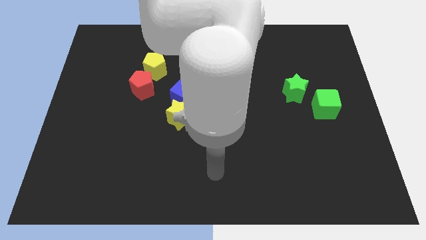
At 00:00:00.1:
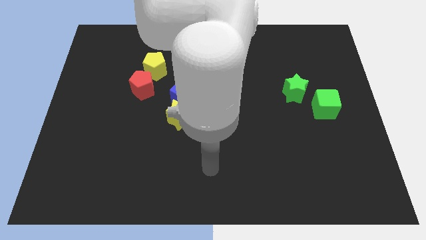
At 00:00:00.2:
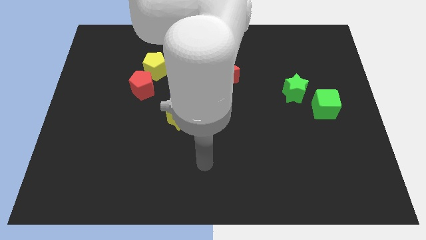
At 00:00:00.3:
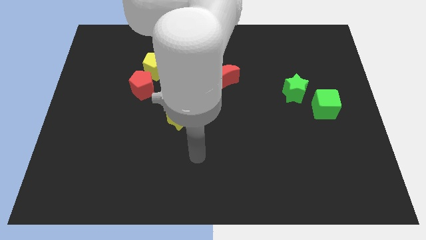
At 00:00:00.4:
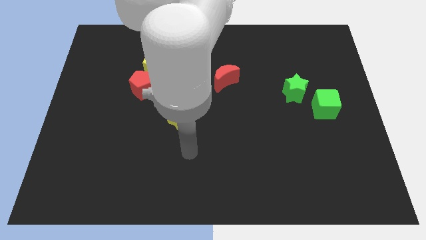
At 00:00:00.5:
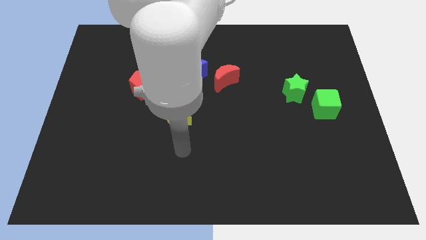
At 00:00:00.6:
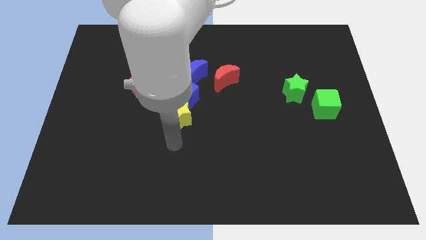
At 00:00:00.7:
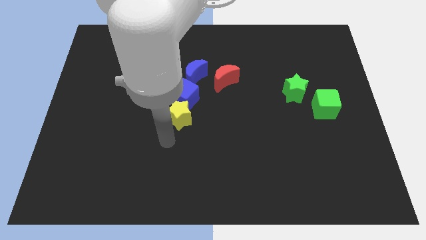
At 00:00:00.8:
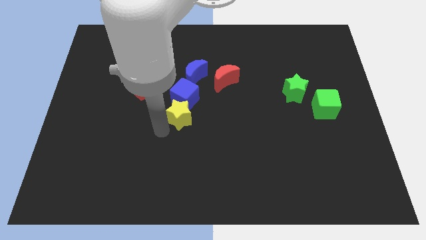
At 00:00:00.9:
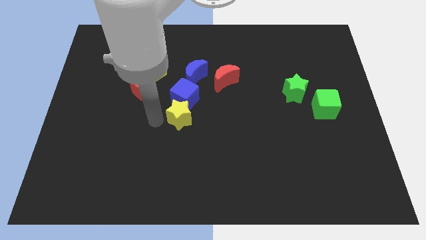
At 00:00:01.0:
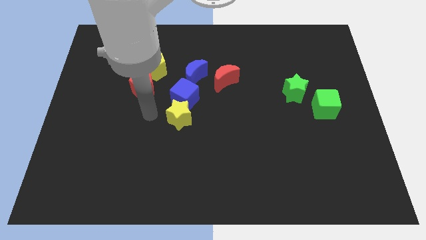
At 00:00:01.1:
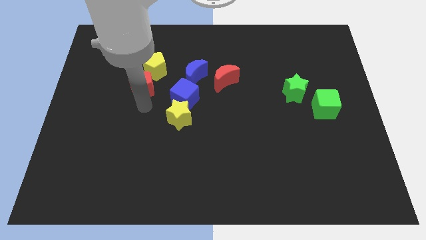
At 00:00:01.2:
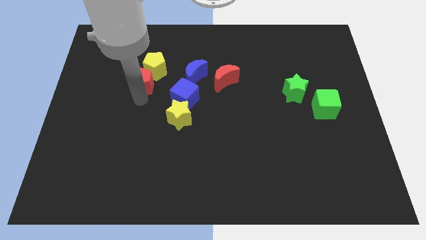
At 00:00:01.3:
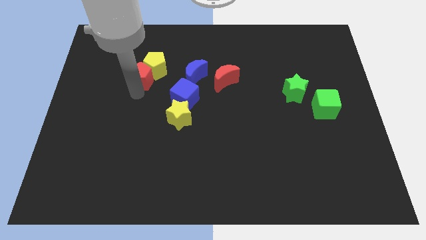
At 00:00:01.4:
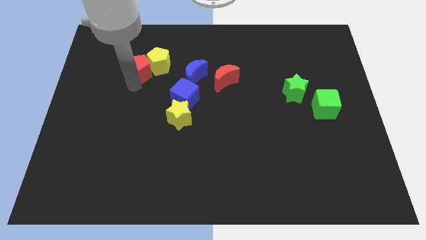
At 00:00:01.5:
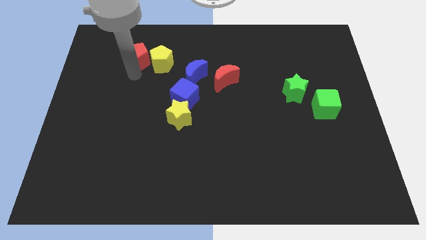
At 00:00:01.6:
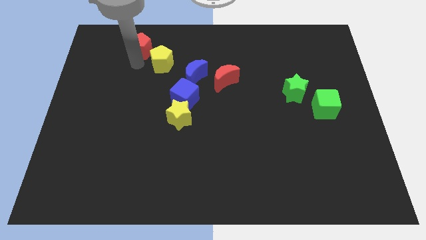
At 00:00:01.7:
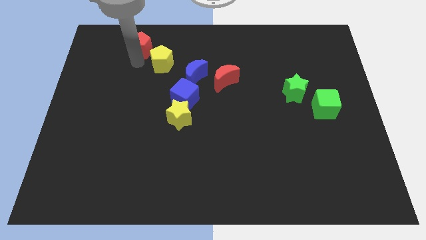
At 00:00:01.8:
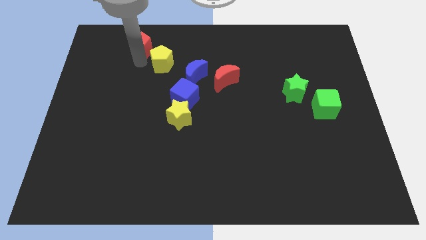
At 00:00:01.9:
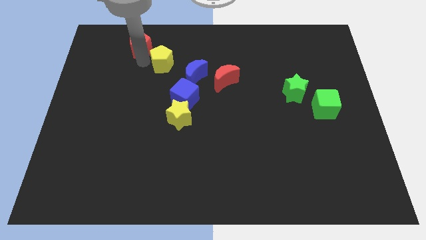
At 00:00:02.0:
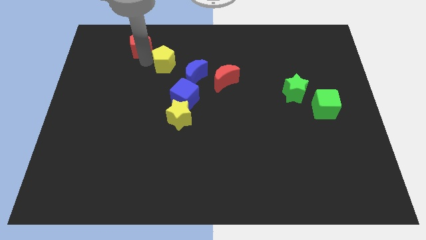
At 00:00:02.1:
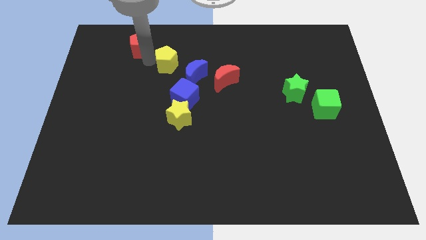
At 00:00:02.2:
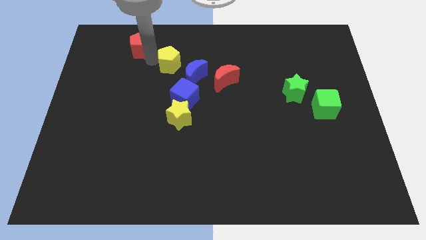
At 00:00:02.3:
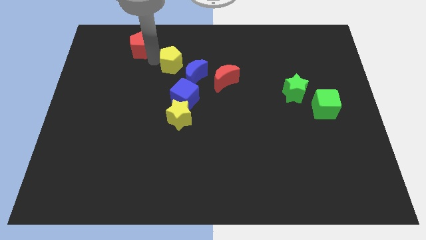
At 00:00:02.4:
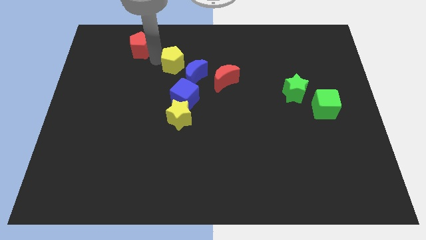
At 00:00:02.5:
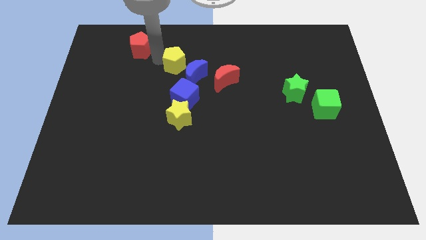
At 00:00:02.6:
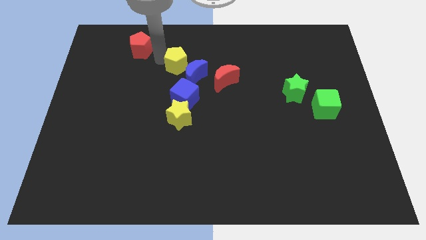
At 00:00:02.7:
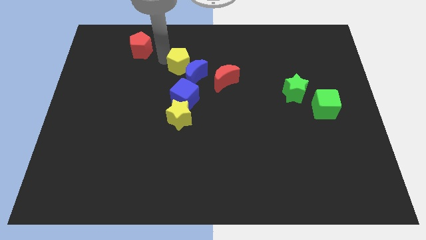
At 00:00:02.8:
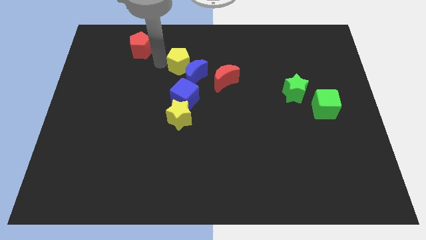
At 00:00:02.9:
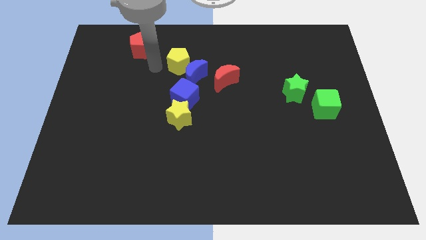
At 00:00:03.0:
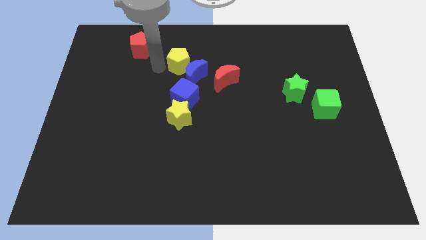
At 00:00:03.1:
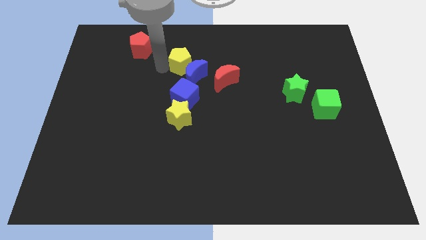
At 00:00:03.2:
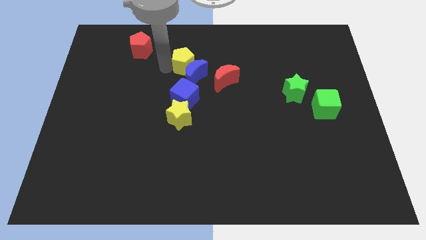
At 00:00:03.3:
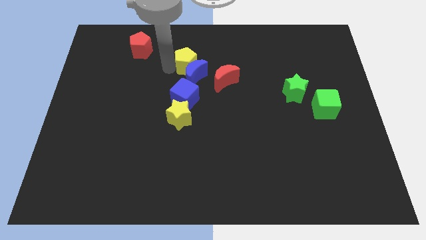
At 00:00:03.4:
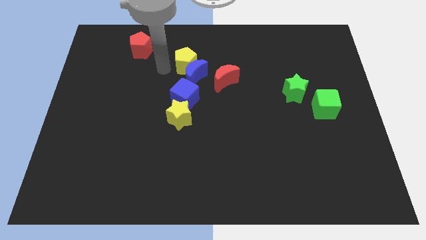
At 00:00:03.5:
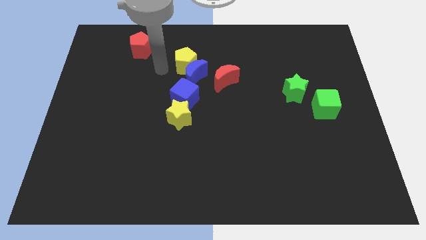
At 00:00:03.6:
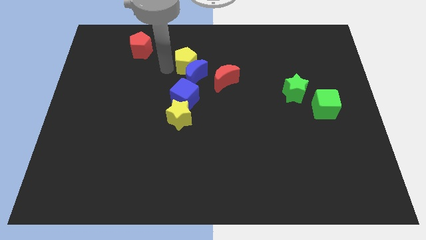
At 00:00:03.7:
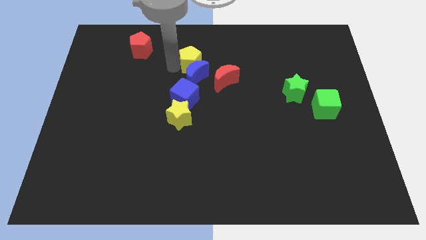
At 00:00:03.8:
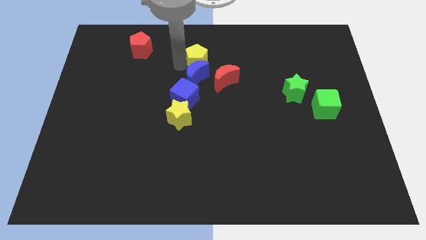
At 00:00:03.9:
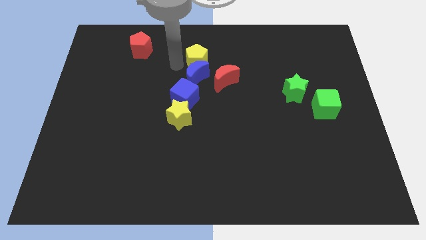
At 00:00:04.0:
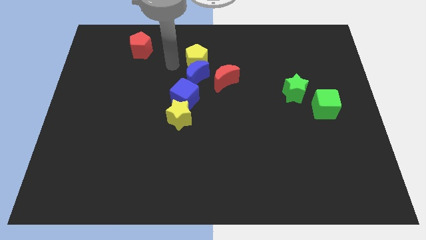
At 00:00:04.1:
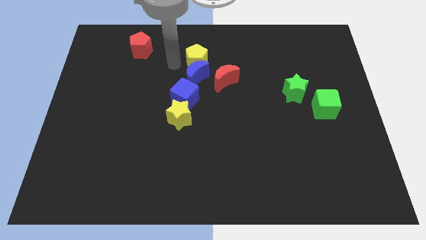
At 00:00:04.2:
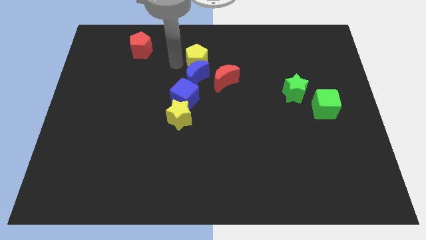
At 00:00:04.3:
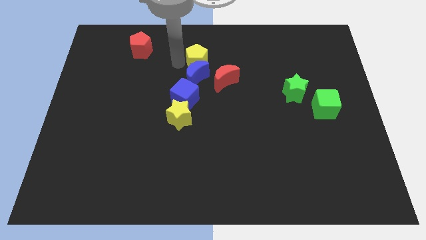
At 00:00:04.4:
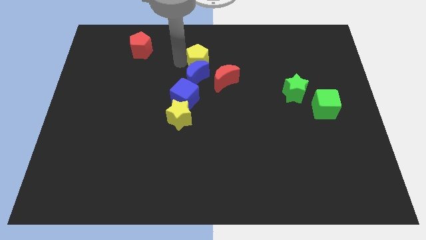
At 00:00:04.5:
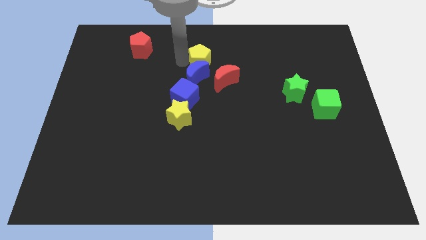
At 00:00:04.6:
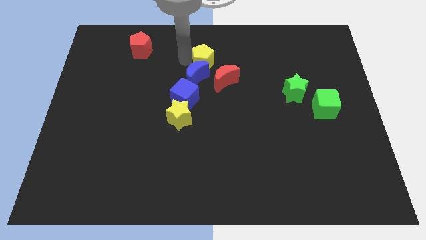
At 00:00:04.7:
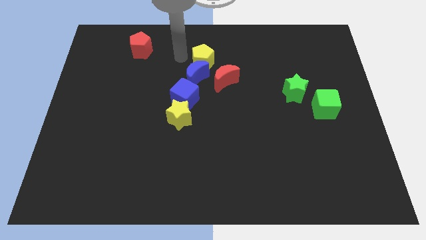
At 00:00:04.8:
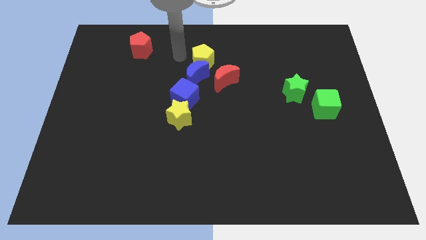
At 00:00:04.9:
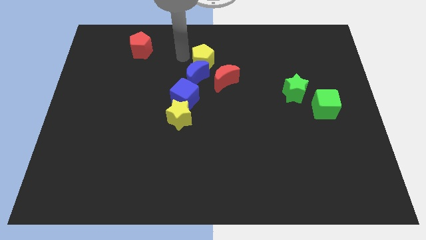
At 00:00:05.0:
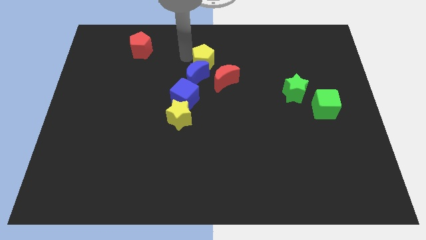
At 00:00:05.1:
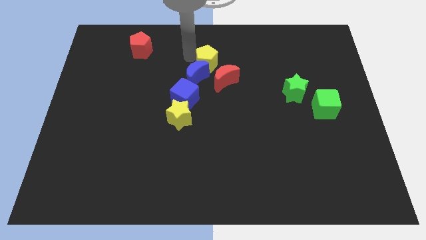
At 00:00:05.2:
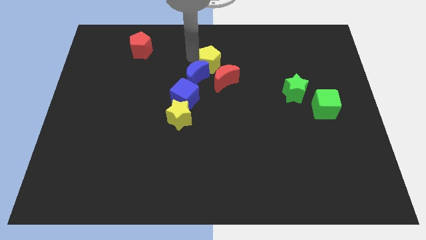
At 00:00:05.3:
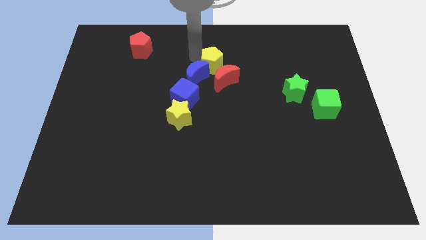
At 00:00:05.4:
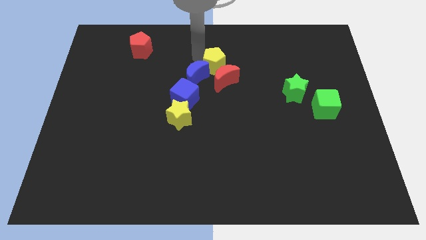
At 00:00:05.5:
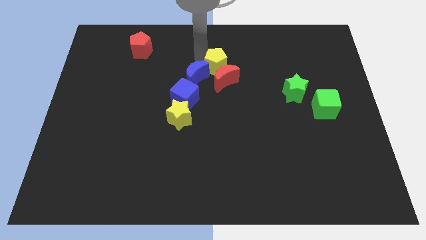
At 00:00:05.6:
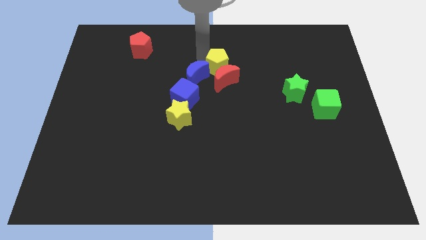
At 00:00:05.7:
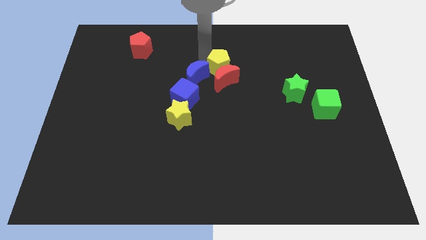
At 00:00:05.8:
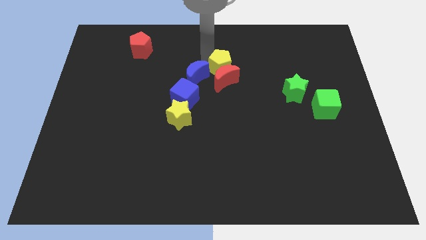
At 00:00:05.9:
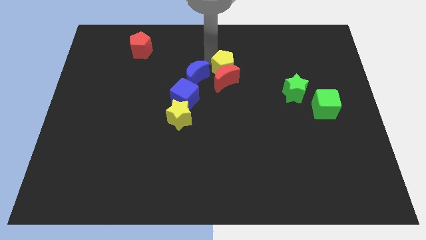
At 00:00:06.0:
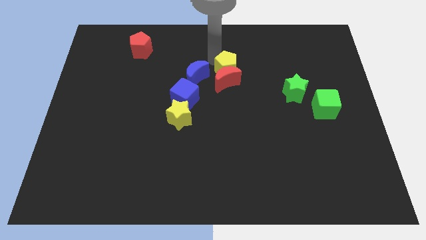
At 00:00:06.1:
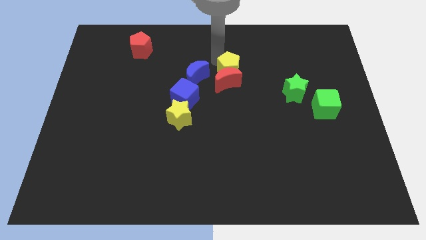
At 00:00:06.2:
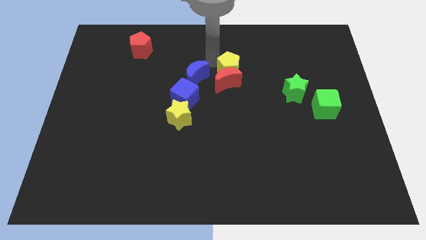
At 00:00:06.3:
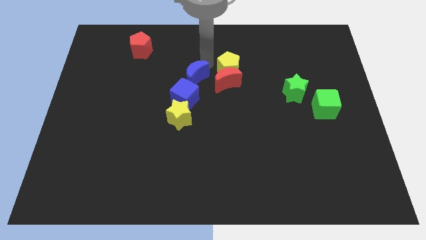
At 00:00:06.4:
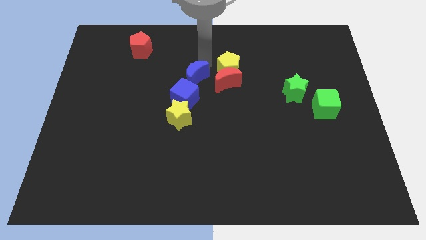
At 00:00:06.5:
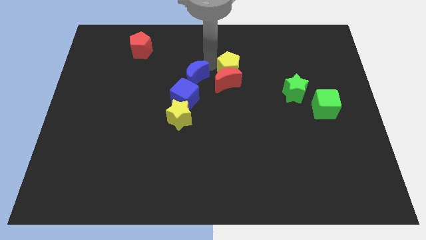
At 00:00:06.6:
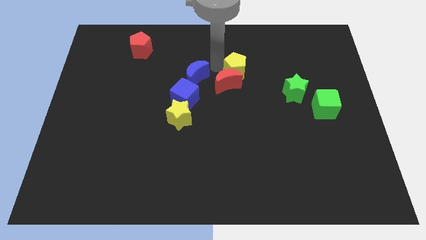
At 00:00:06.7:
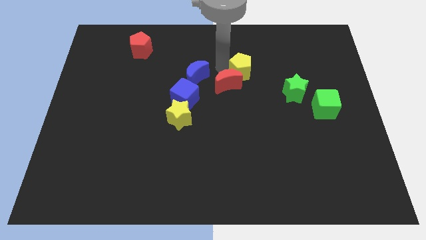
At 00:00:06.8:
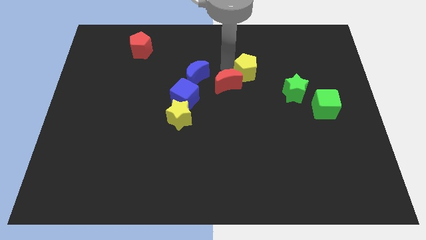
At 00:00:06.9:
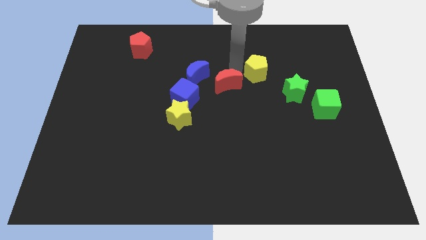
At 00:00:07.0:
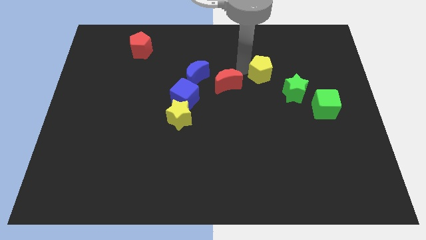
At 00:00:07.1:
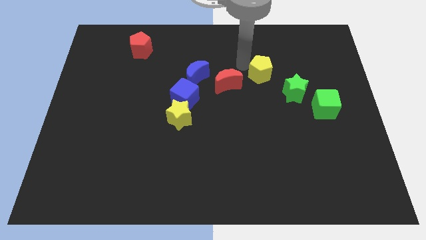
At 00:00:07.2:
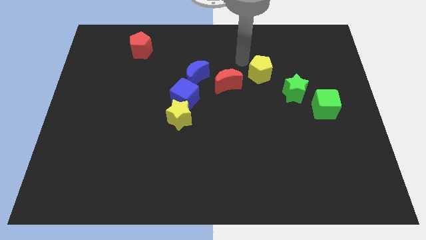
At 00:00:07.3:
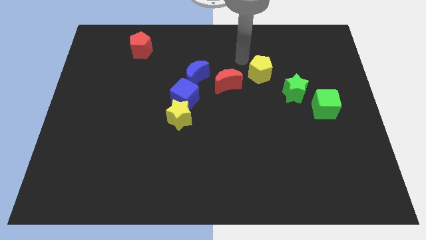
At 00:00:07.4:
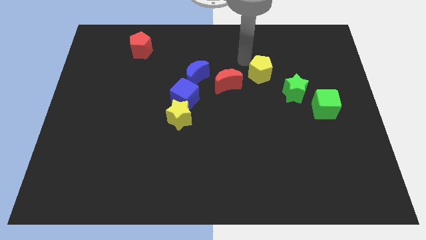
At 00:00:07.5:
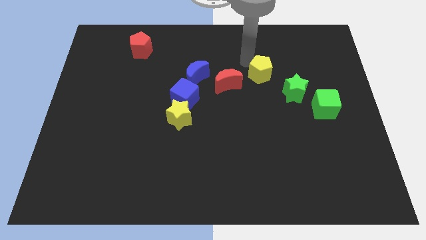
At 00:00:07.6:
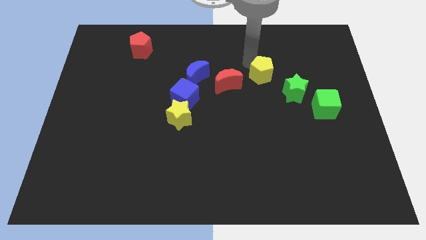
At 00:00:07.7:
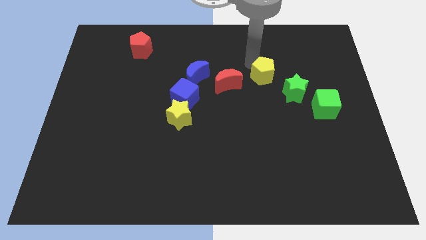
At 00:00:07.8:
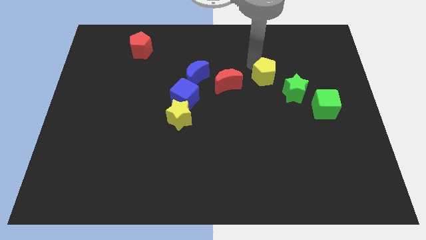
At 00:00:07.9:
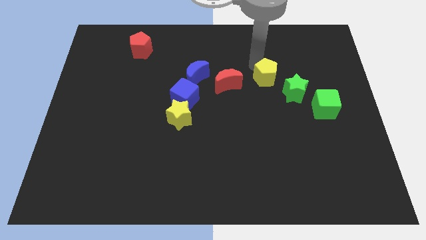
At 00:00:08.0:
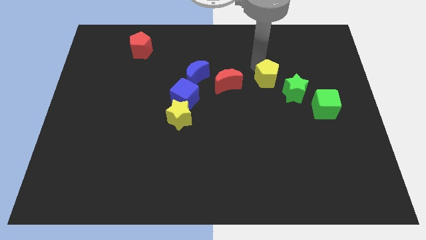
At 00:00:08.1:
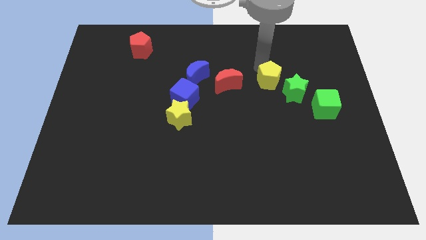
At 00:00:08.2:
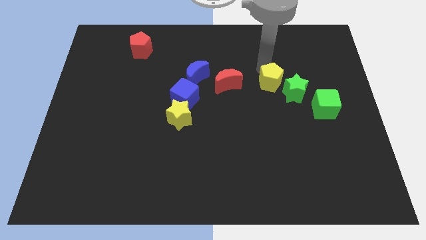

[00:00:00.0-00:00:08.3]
push the yellow pentagon towards the green star
